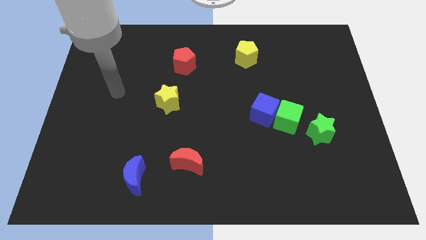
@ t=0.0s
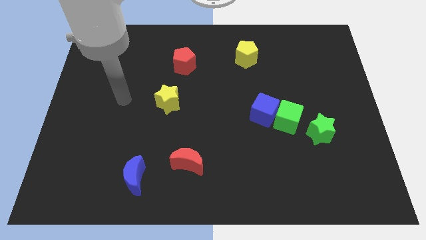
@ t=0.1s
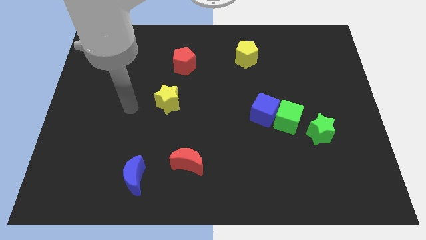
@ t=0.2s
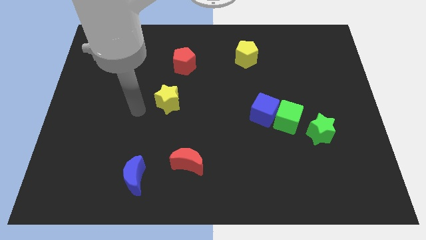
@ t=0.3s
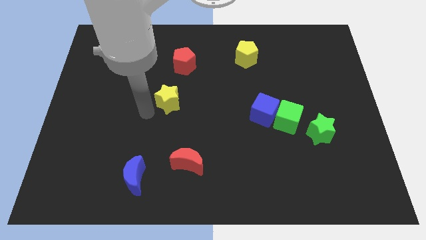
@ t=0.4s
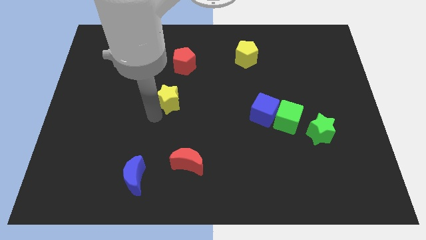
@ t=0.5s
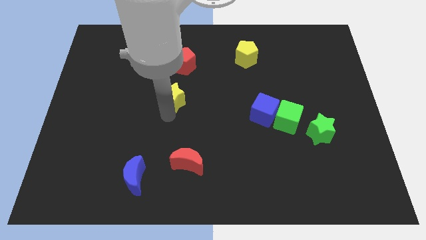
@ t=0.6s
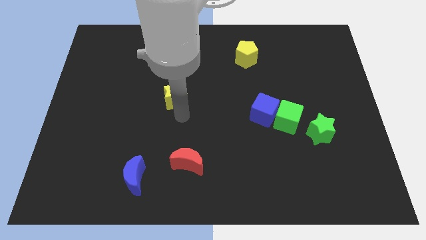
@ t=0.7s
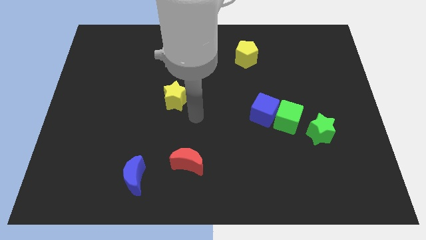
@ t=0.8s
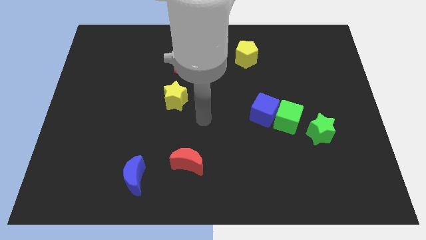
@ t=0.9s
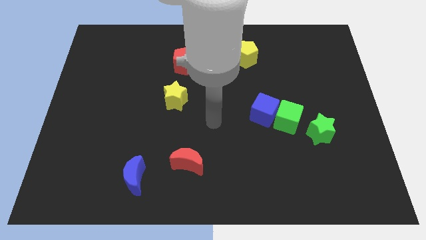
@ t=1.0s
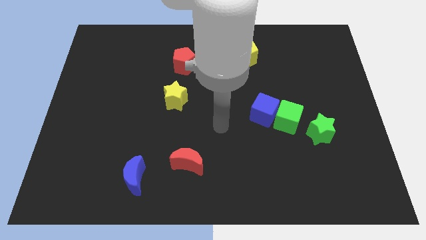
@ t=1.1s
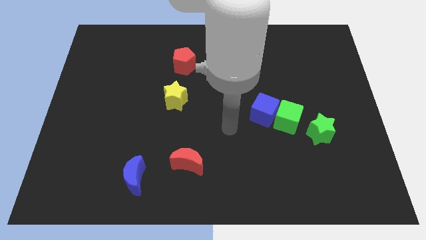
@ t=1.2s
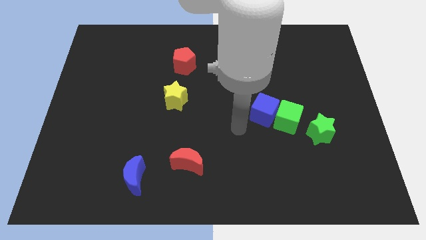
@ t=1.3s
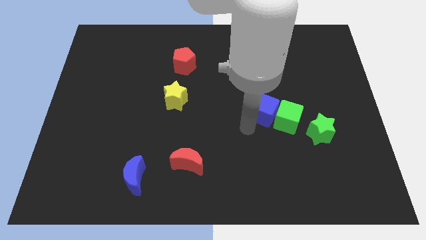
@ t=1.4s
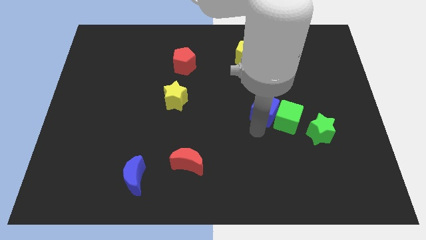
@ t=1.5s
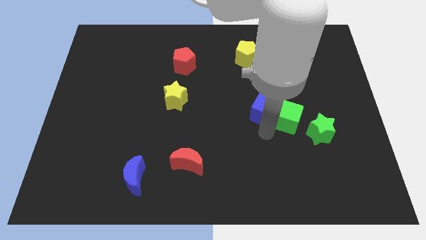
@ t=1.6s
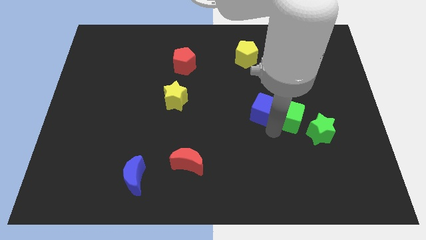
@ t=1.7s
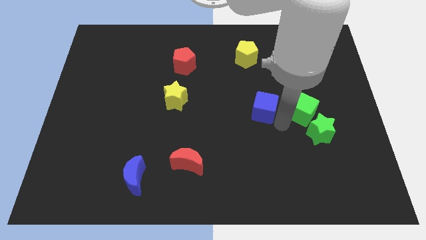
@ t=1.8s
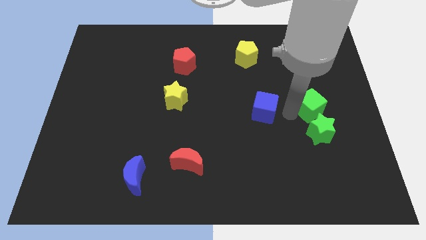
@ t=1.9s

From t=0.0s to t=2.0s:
pull the blue cube apart from the green cube

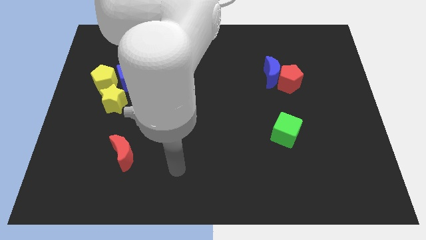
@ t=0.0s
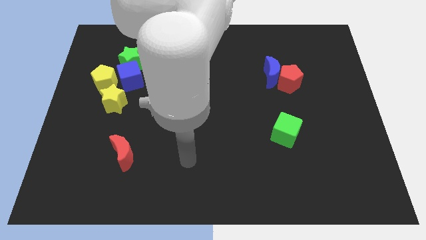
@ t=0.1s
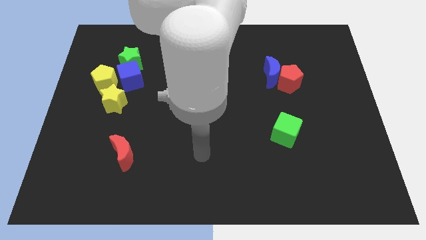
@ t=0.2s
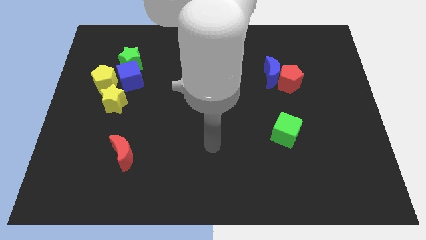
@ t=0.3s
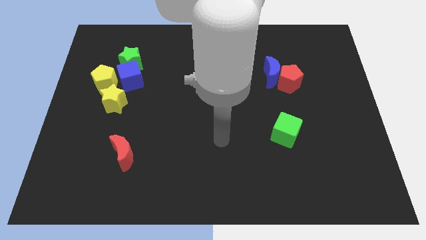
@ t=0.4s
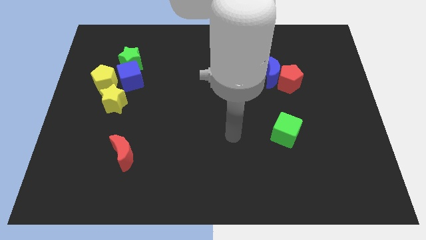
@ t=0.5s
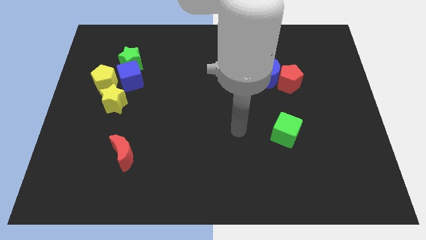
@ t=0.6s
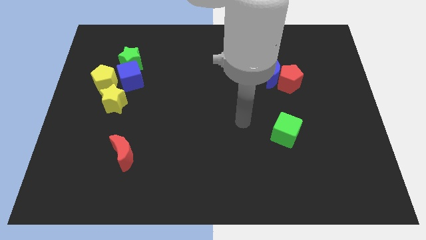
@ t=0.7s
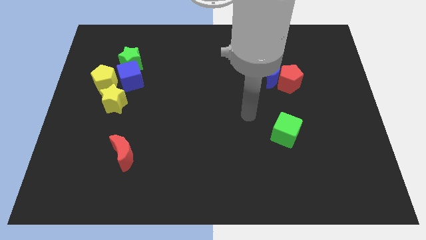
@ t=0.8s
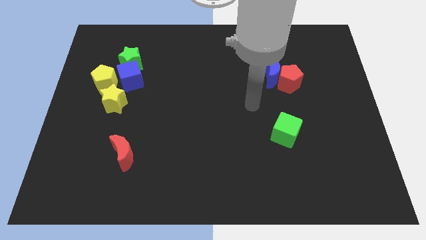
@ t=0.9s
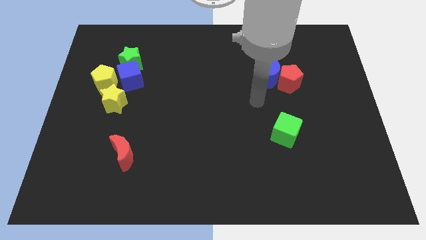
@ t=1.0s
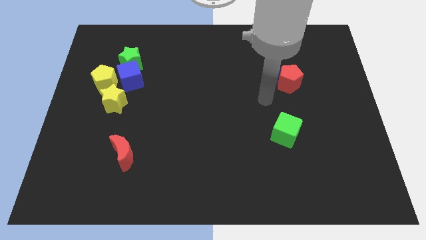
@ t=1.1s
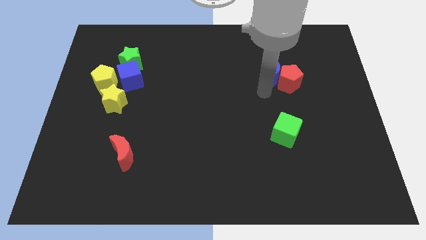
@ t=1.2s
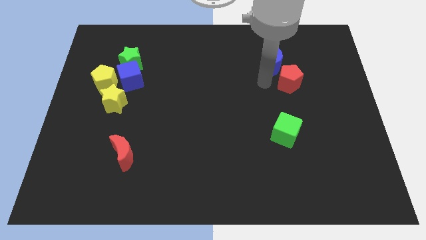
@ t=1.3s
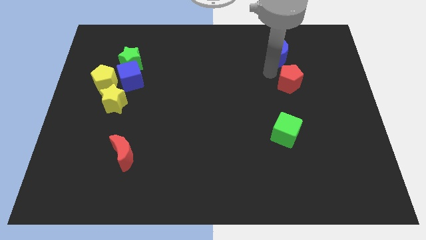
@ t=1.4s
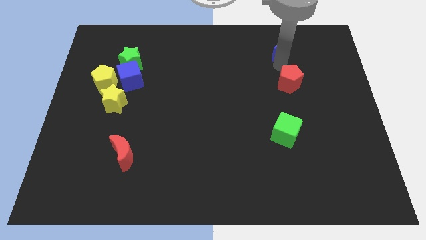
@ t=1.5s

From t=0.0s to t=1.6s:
separate the red pentagon from the blue moon

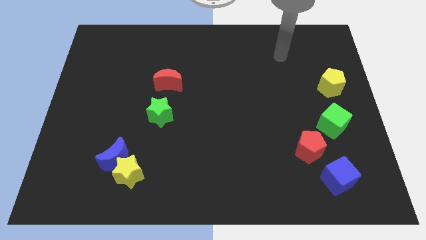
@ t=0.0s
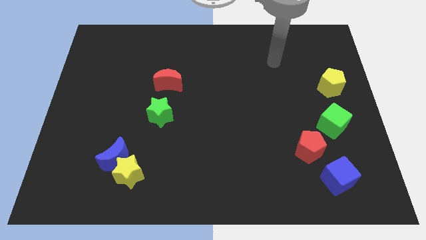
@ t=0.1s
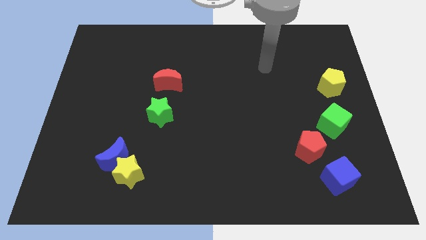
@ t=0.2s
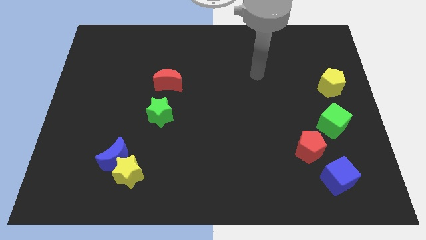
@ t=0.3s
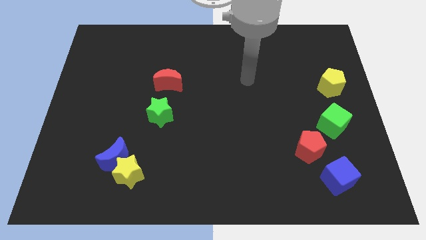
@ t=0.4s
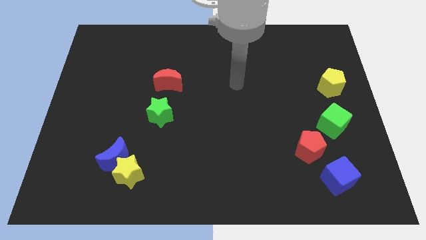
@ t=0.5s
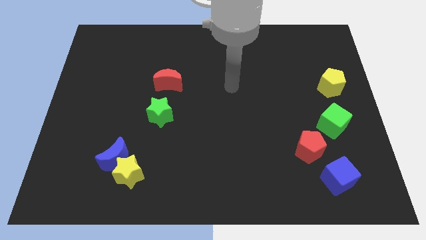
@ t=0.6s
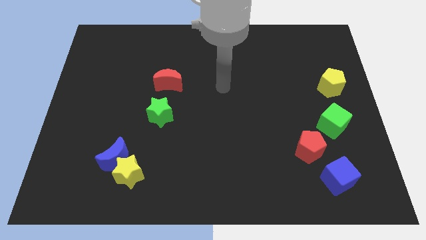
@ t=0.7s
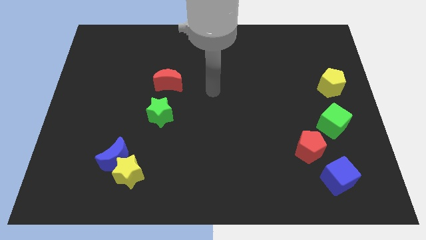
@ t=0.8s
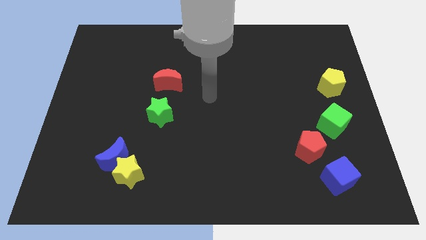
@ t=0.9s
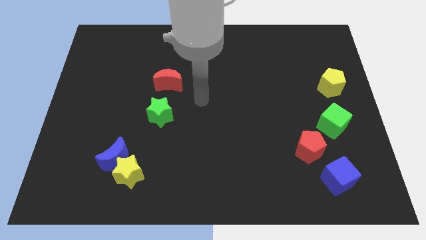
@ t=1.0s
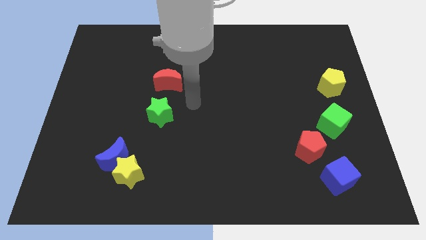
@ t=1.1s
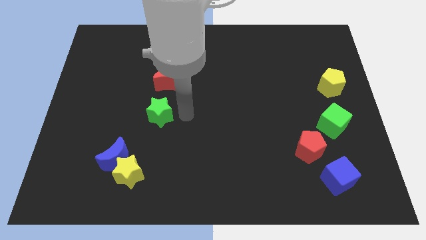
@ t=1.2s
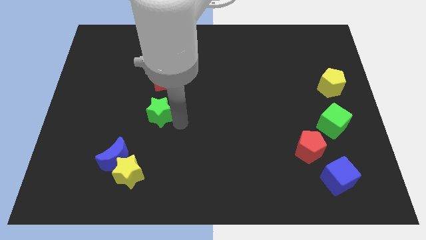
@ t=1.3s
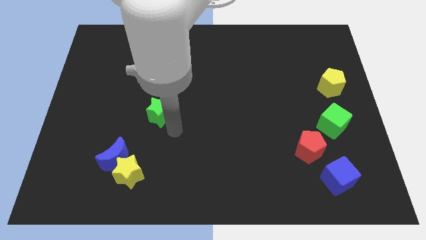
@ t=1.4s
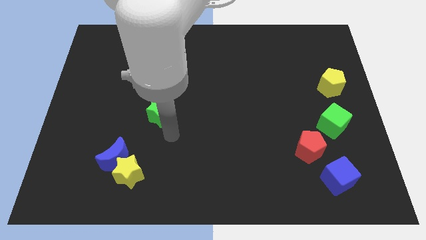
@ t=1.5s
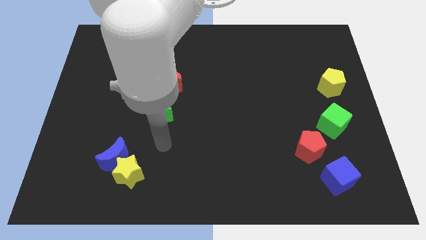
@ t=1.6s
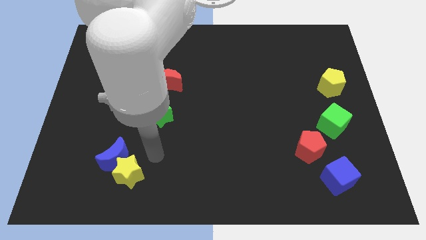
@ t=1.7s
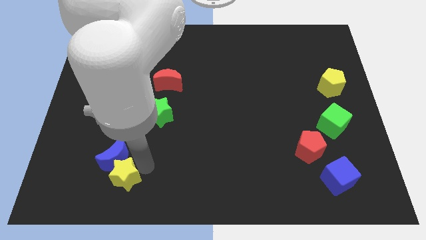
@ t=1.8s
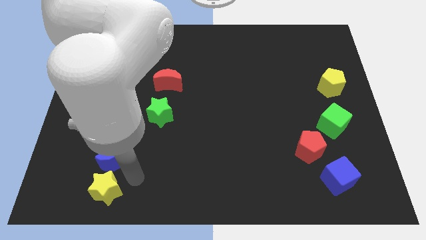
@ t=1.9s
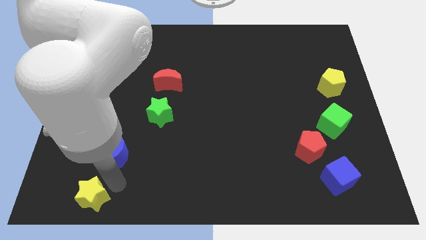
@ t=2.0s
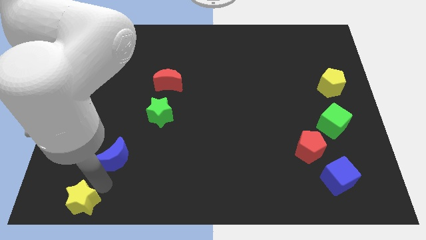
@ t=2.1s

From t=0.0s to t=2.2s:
move the blue moon away from the yellow star

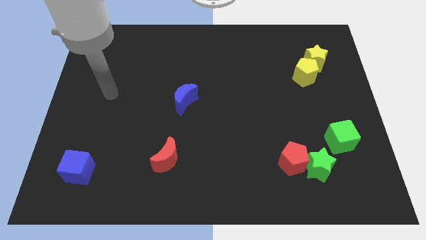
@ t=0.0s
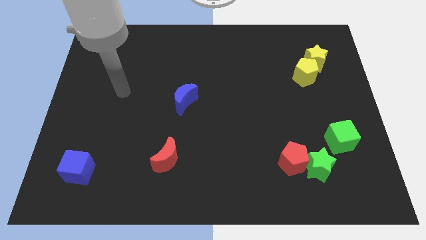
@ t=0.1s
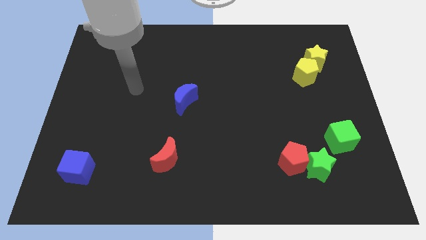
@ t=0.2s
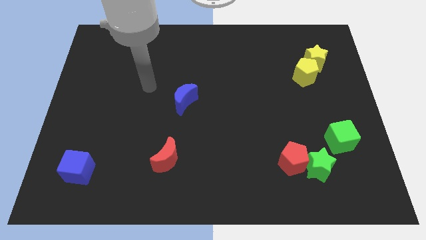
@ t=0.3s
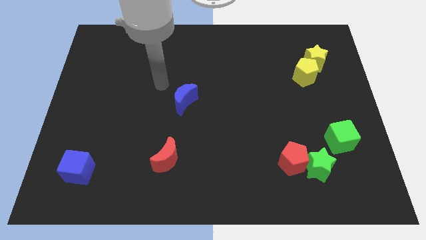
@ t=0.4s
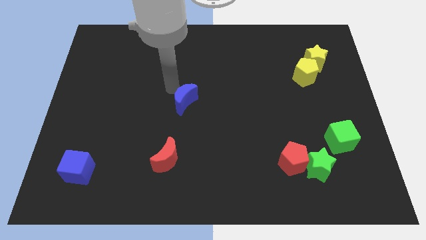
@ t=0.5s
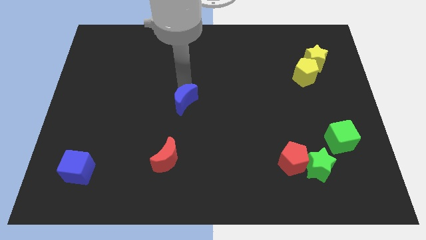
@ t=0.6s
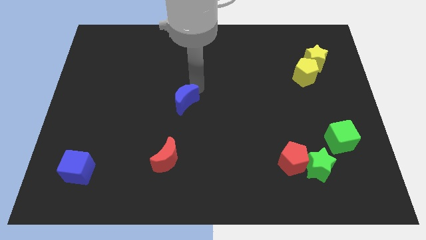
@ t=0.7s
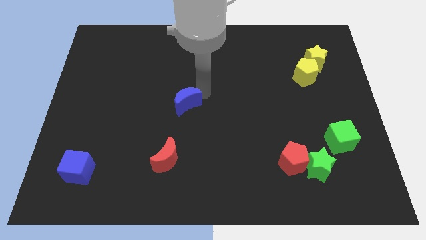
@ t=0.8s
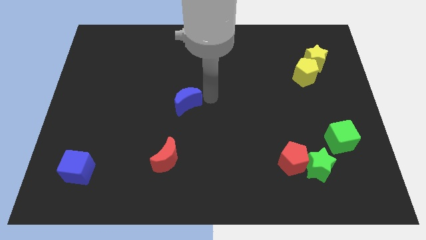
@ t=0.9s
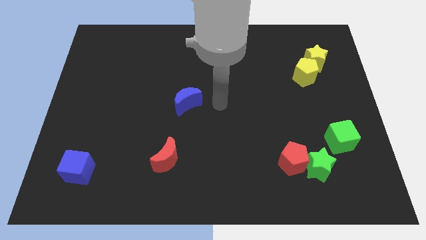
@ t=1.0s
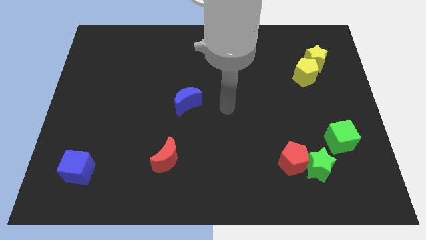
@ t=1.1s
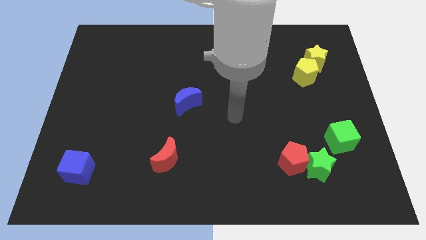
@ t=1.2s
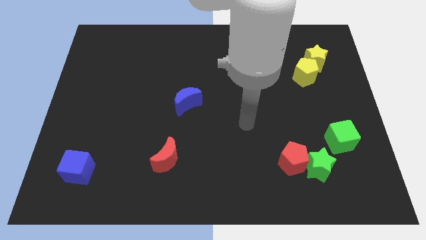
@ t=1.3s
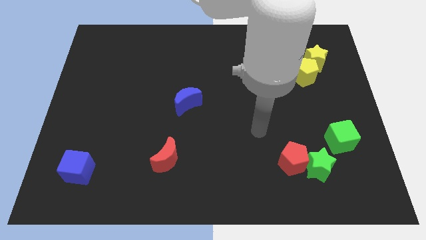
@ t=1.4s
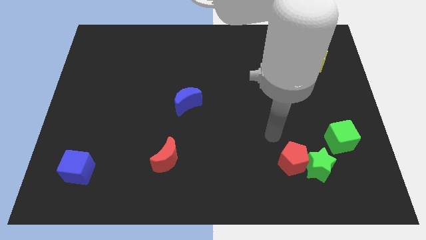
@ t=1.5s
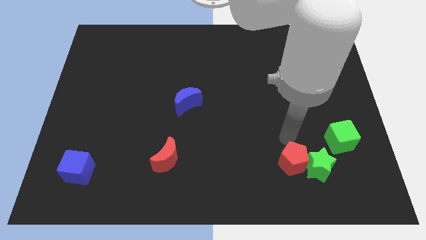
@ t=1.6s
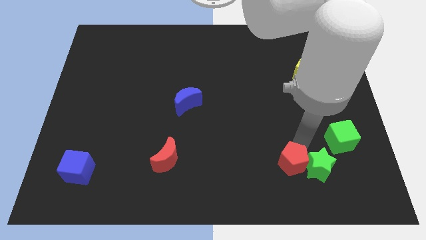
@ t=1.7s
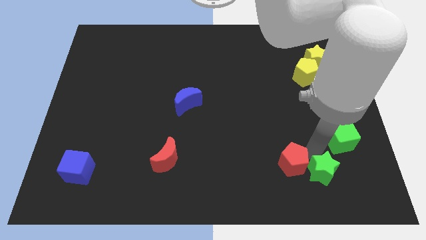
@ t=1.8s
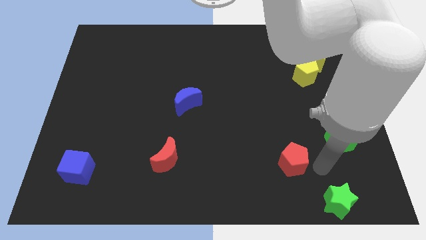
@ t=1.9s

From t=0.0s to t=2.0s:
separate the red pentagon from the green star

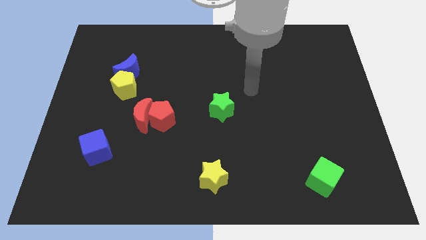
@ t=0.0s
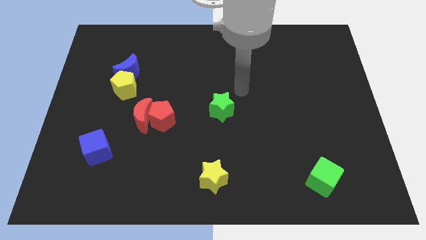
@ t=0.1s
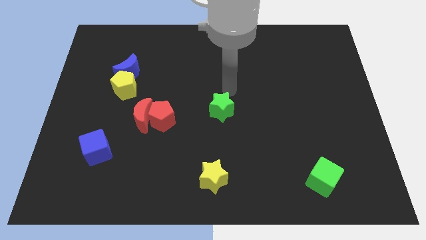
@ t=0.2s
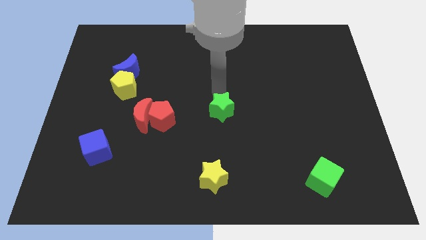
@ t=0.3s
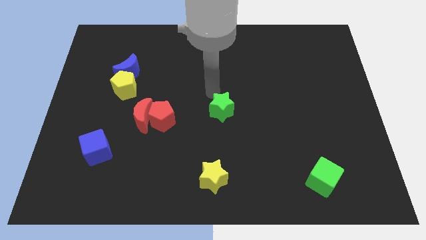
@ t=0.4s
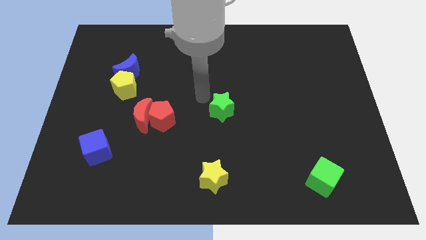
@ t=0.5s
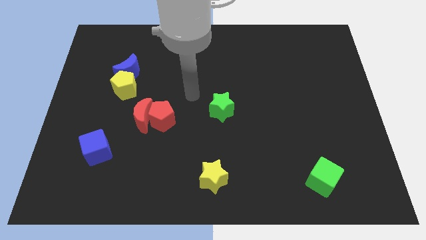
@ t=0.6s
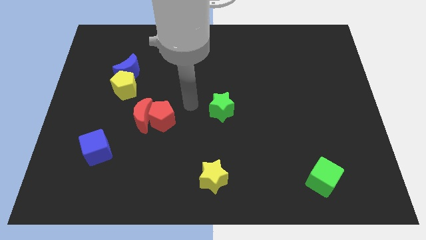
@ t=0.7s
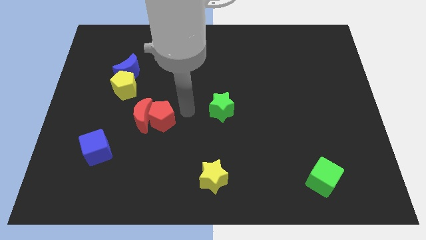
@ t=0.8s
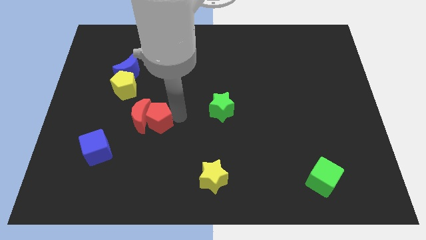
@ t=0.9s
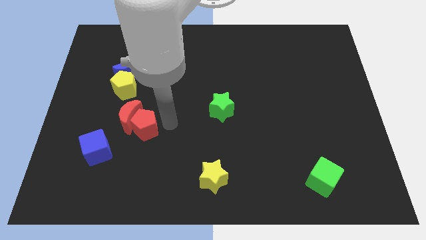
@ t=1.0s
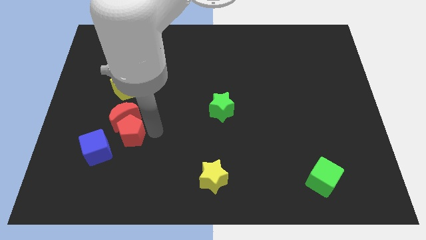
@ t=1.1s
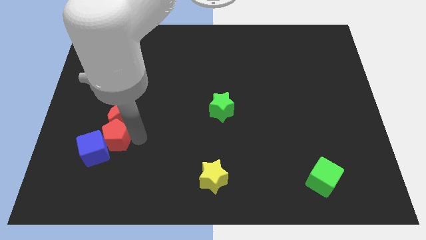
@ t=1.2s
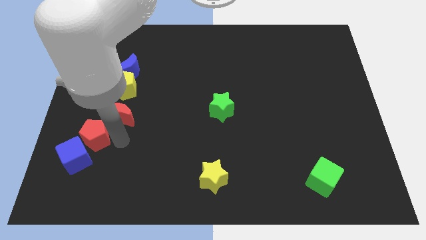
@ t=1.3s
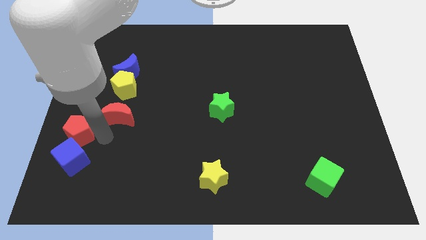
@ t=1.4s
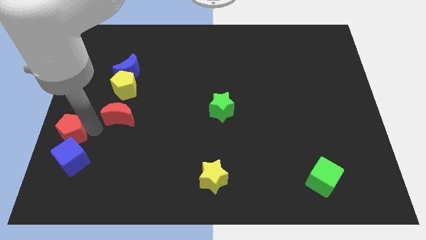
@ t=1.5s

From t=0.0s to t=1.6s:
separate the red moon from the red pentagon
